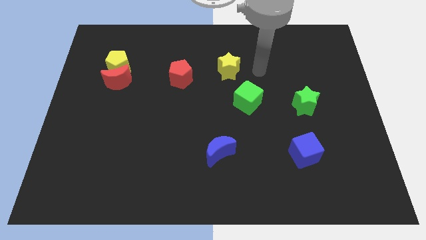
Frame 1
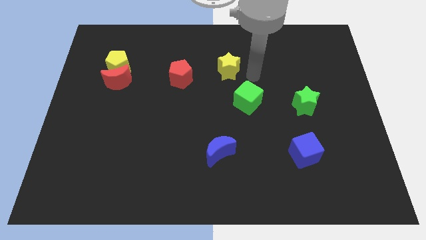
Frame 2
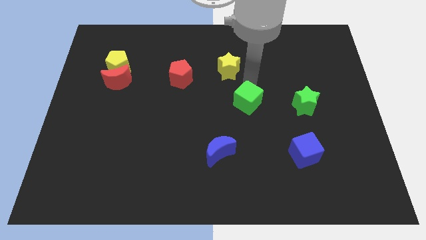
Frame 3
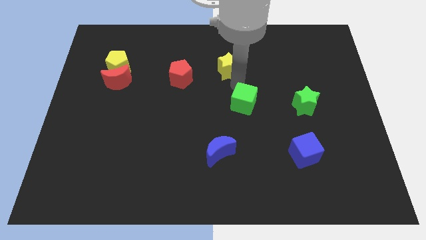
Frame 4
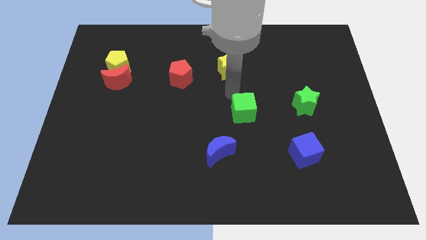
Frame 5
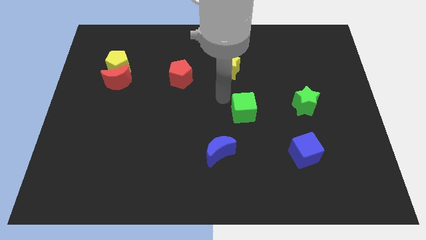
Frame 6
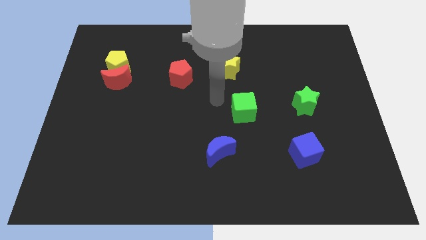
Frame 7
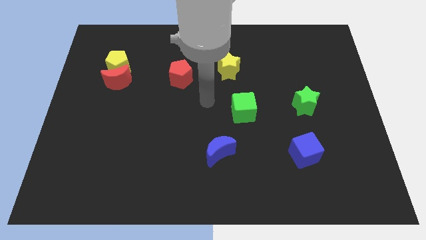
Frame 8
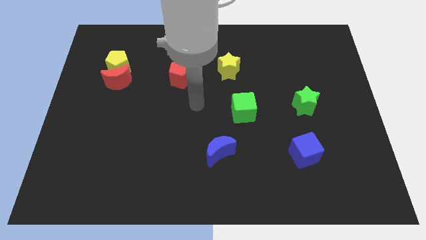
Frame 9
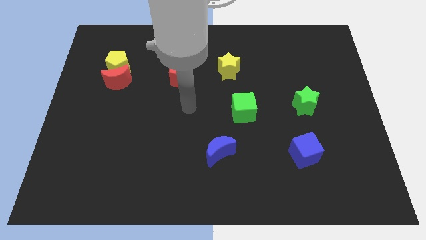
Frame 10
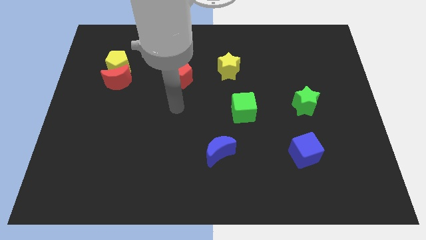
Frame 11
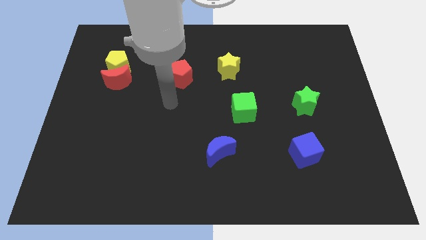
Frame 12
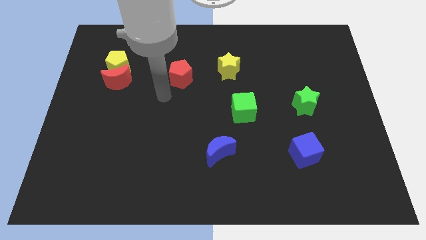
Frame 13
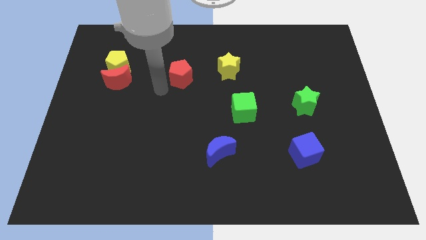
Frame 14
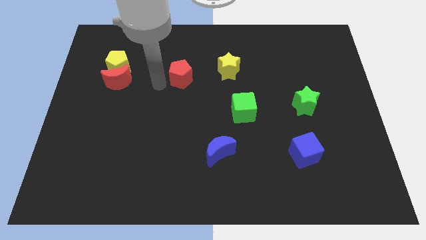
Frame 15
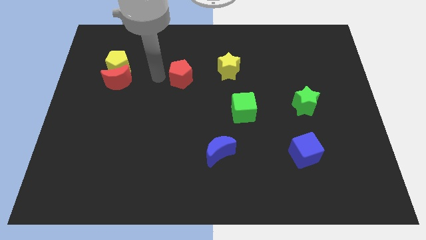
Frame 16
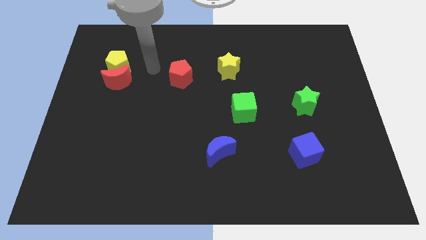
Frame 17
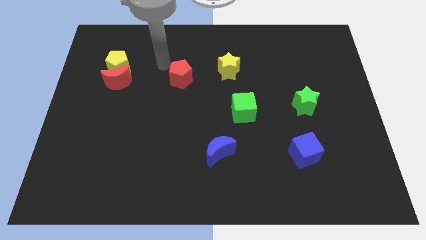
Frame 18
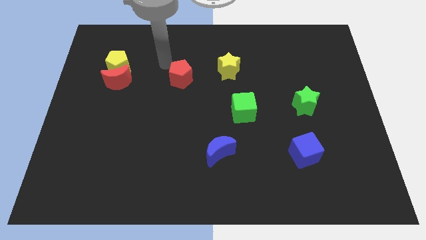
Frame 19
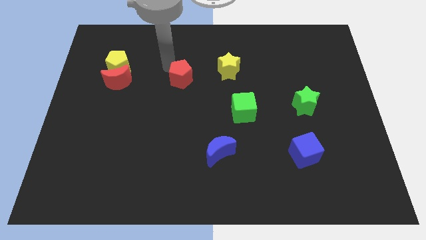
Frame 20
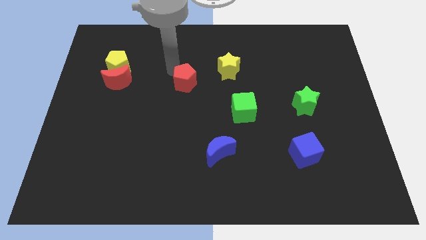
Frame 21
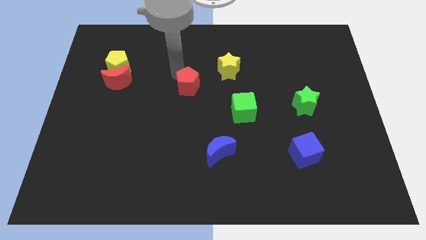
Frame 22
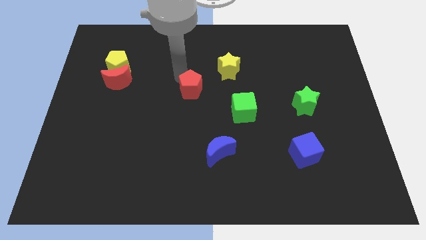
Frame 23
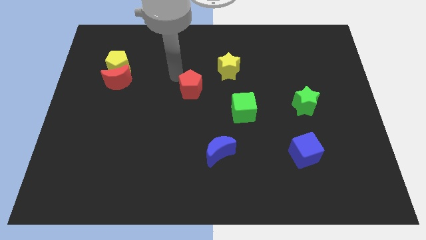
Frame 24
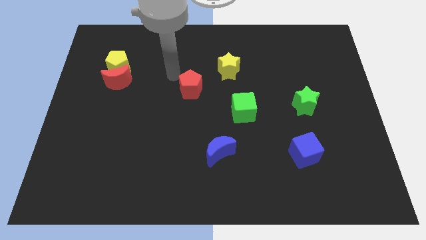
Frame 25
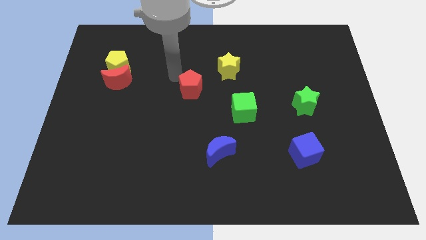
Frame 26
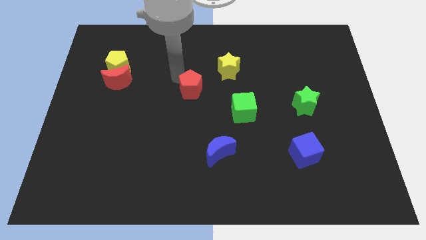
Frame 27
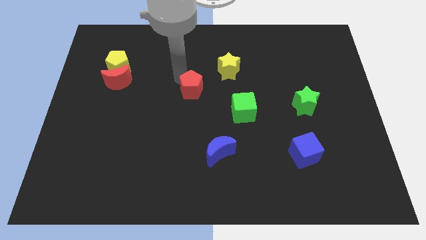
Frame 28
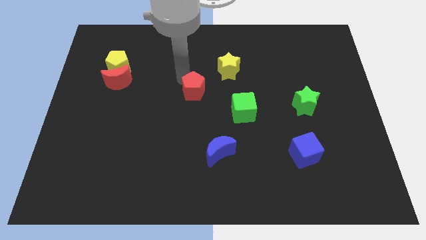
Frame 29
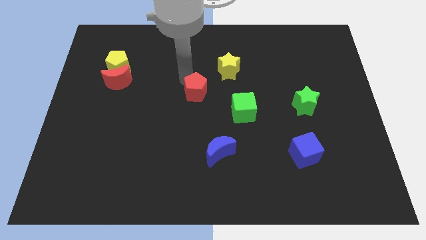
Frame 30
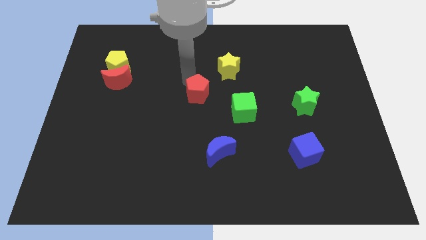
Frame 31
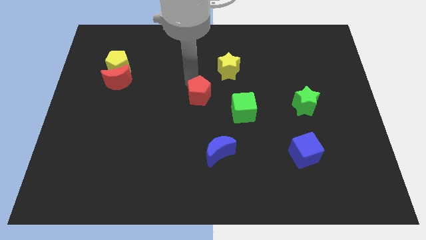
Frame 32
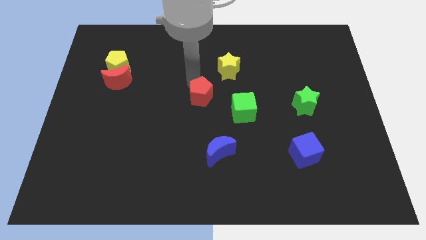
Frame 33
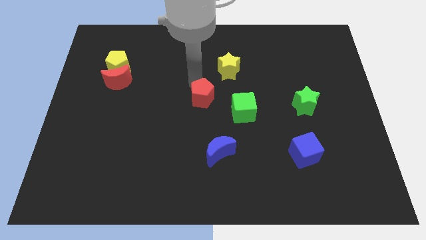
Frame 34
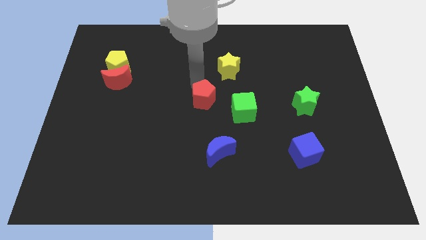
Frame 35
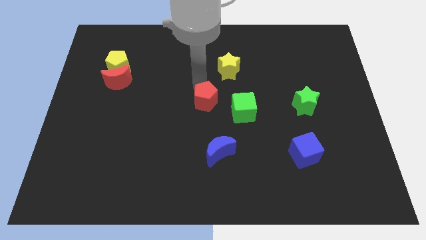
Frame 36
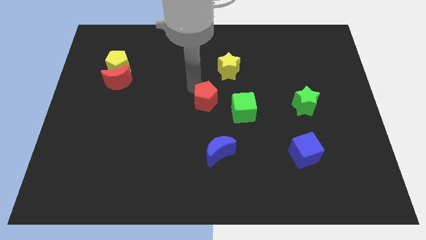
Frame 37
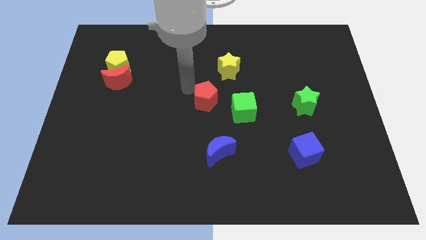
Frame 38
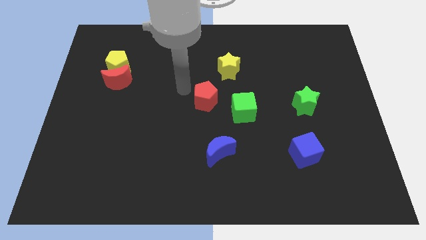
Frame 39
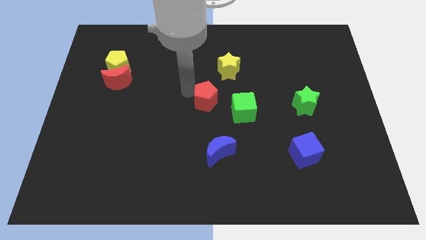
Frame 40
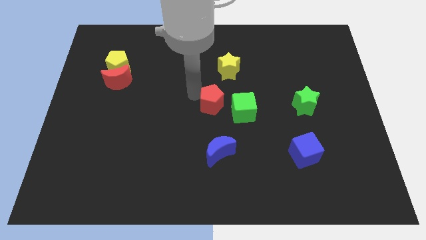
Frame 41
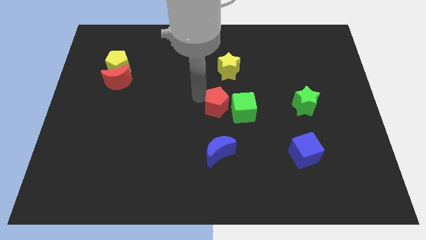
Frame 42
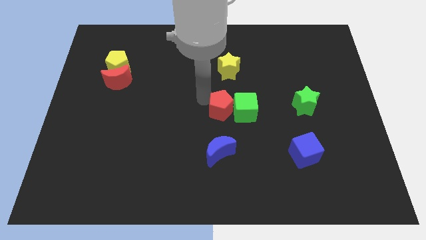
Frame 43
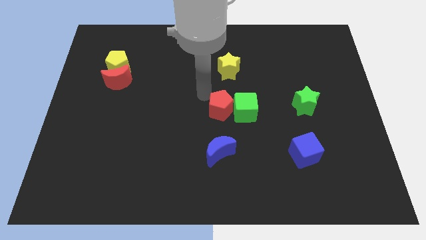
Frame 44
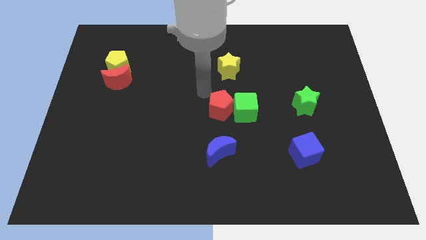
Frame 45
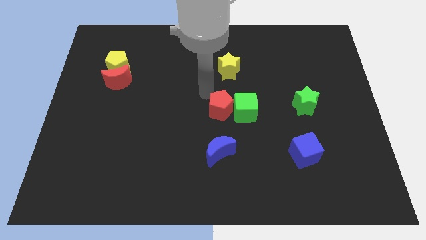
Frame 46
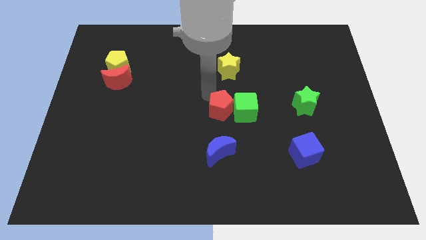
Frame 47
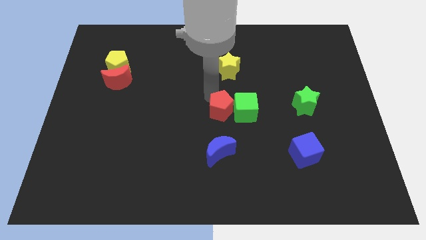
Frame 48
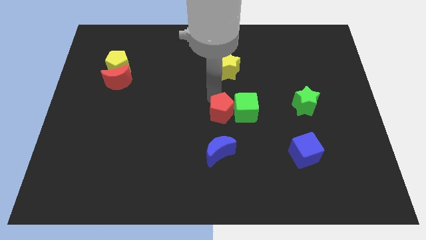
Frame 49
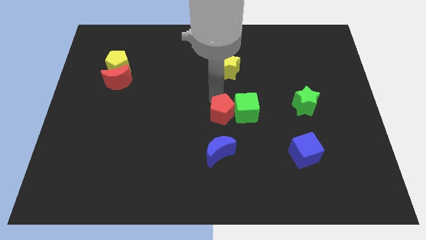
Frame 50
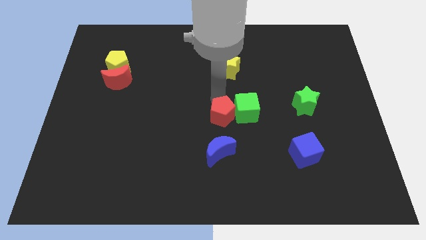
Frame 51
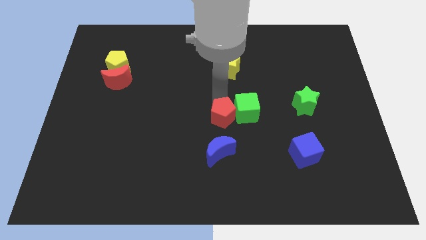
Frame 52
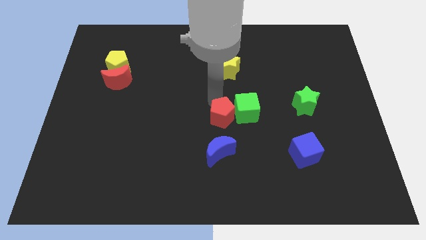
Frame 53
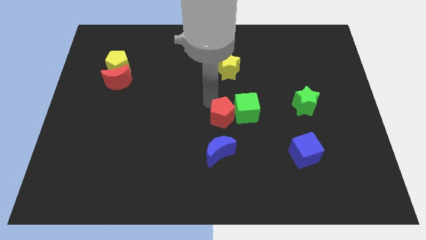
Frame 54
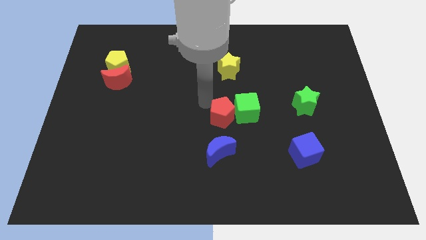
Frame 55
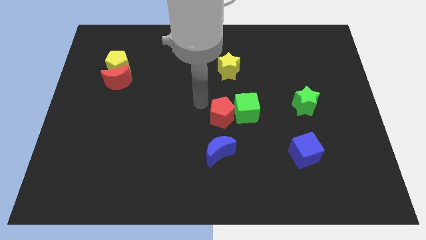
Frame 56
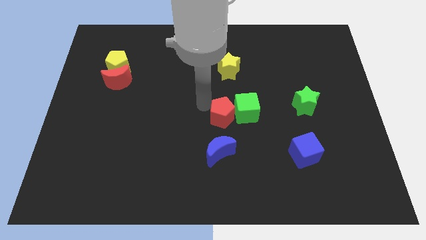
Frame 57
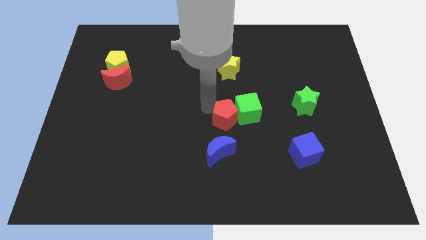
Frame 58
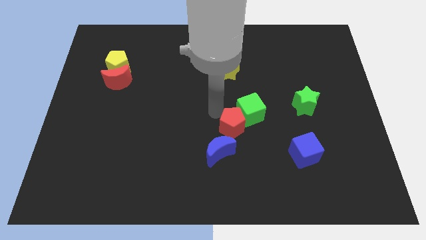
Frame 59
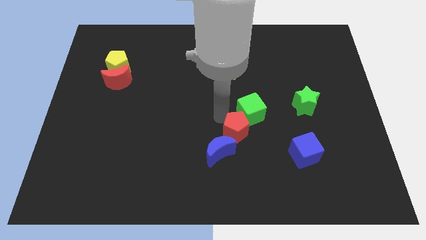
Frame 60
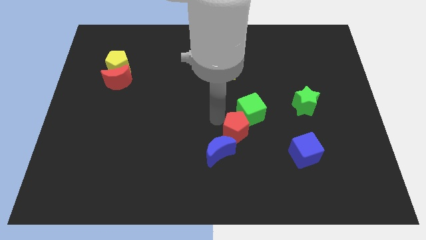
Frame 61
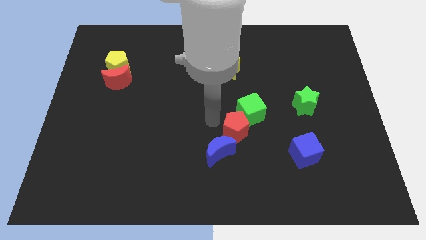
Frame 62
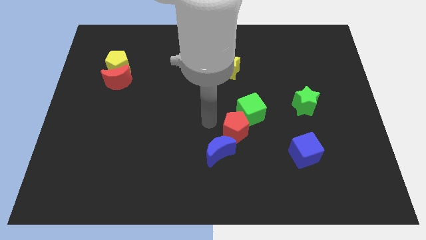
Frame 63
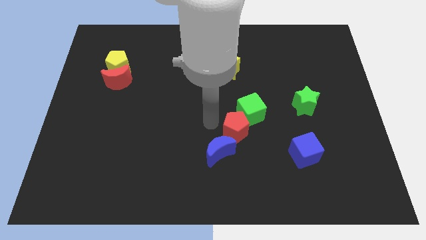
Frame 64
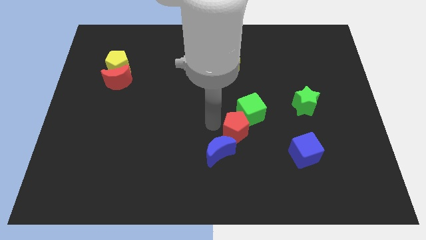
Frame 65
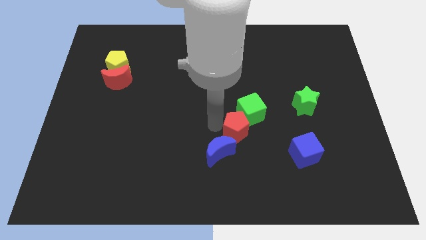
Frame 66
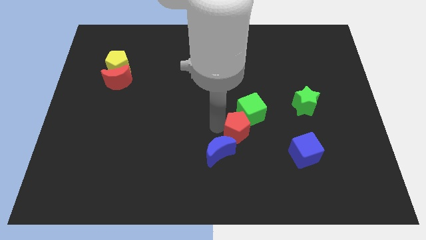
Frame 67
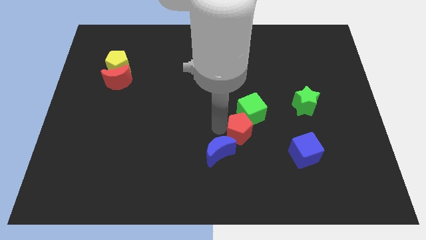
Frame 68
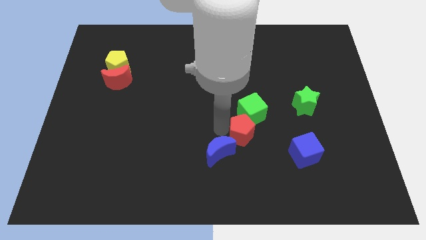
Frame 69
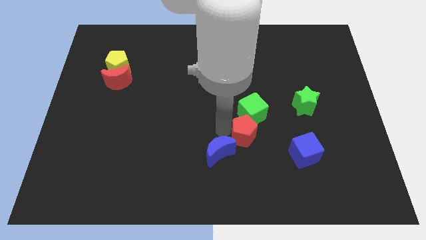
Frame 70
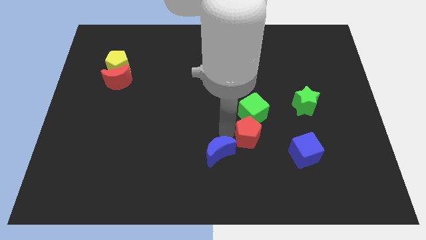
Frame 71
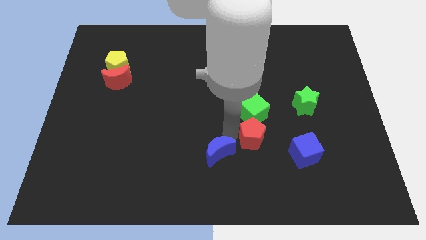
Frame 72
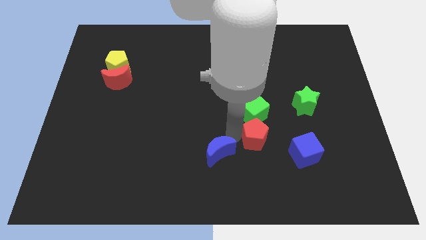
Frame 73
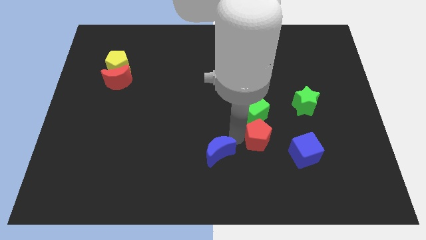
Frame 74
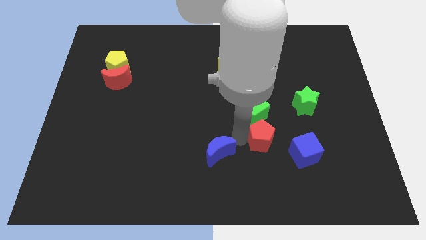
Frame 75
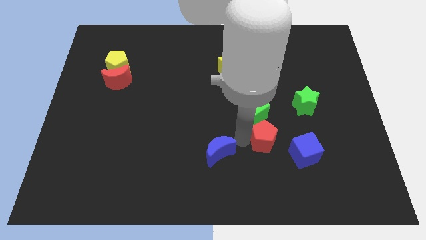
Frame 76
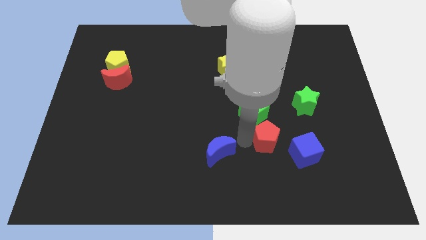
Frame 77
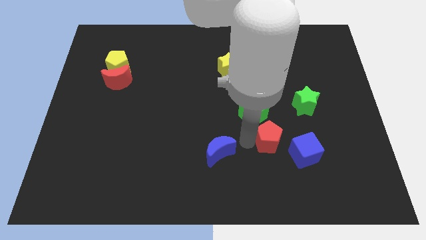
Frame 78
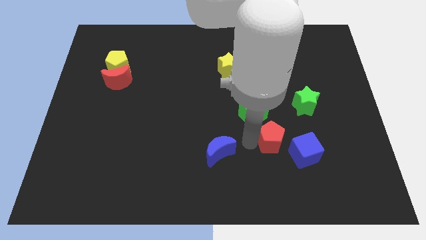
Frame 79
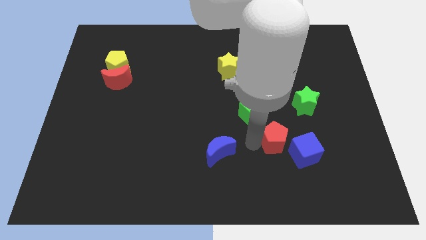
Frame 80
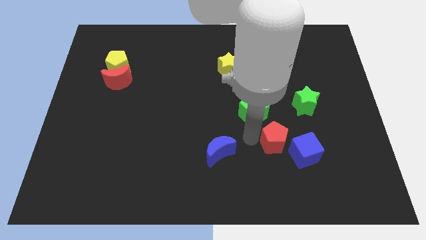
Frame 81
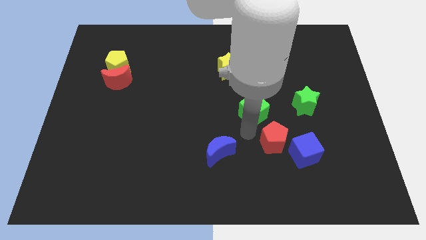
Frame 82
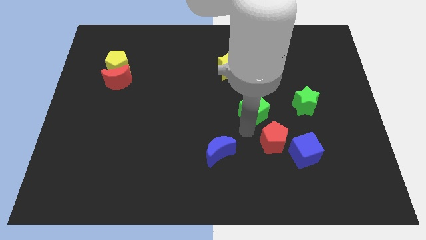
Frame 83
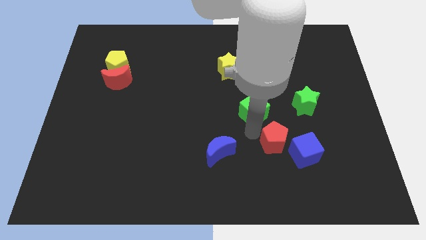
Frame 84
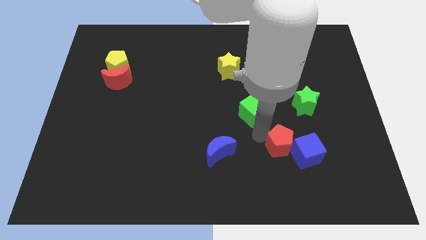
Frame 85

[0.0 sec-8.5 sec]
put the red pentagon next to the blue cube
